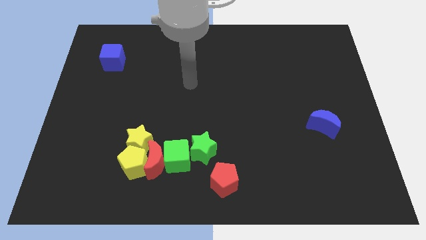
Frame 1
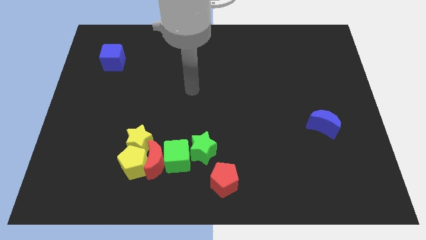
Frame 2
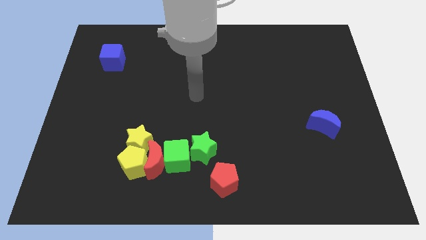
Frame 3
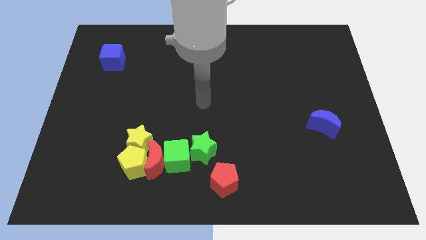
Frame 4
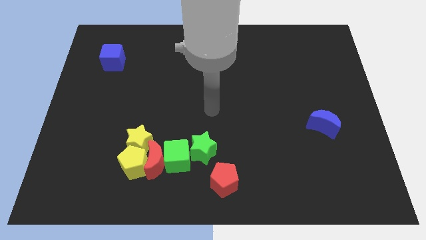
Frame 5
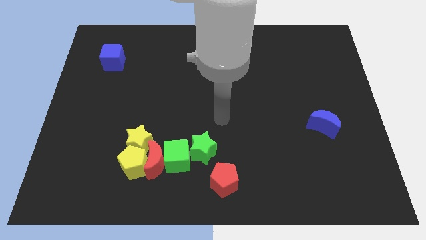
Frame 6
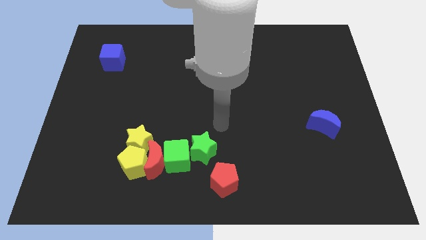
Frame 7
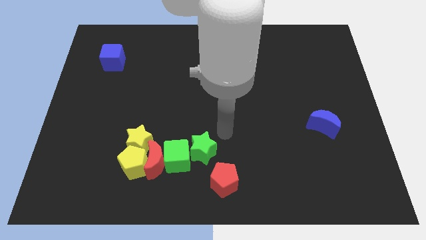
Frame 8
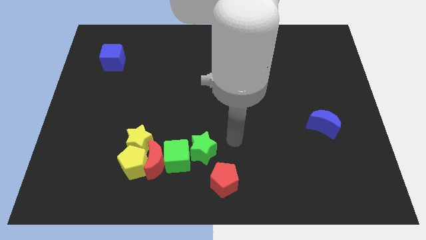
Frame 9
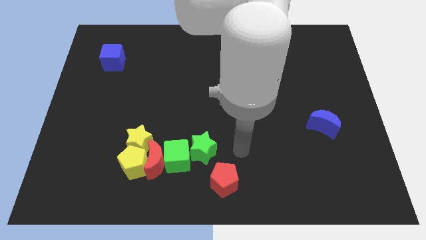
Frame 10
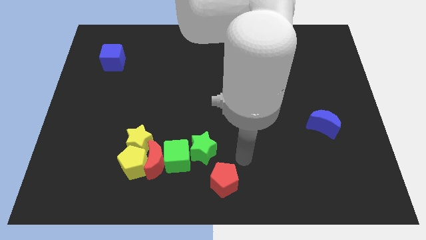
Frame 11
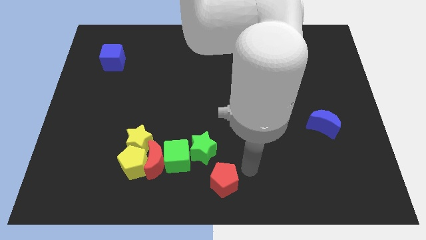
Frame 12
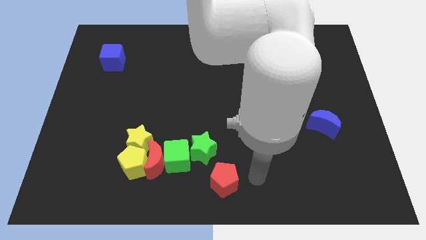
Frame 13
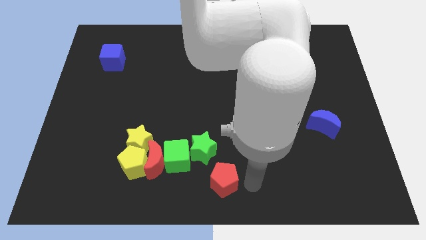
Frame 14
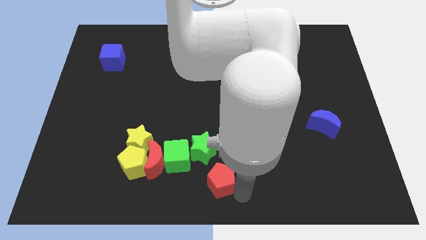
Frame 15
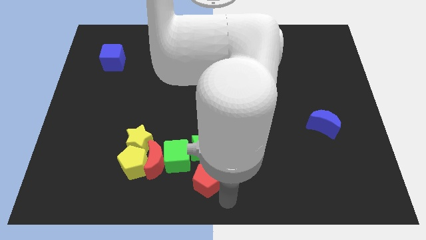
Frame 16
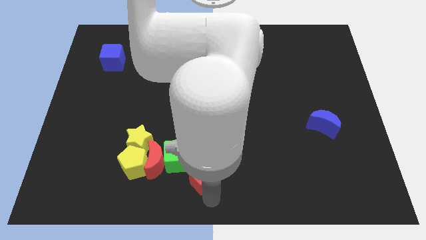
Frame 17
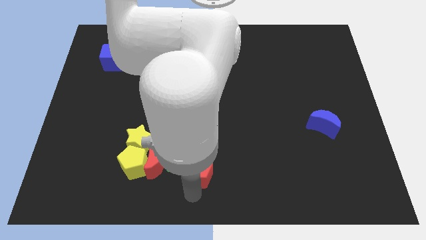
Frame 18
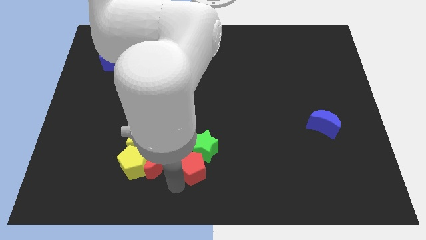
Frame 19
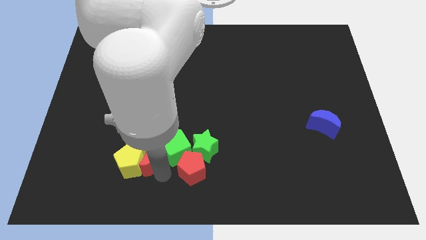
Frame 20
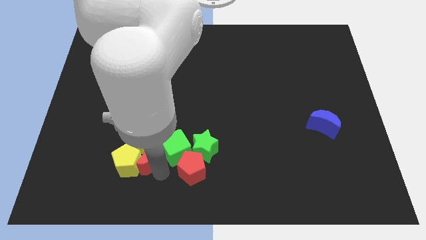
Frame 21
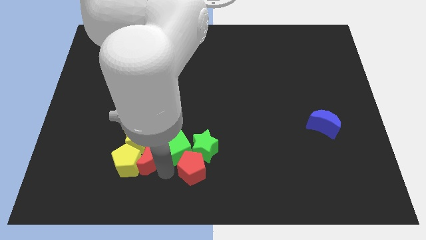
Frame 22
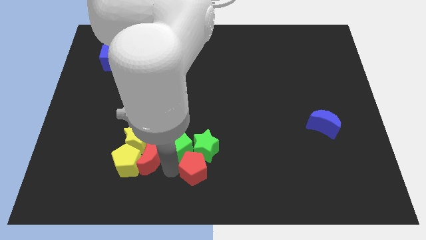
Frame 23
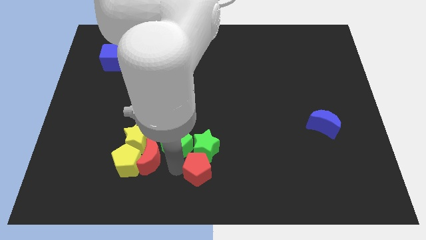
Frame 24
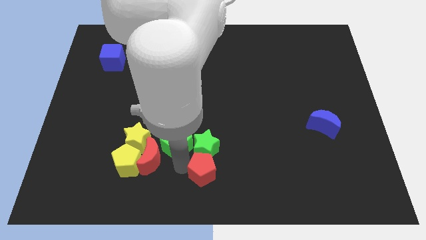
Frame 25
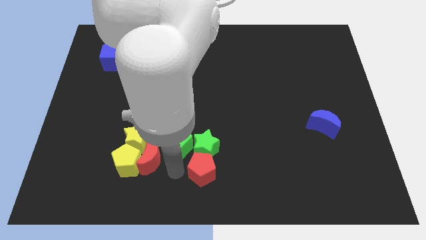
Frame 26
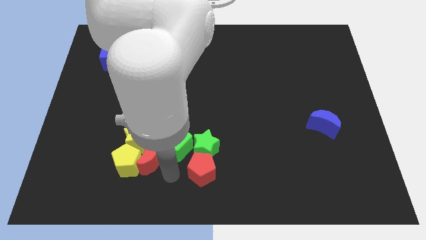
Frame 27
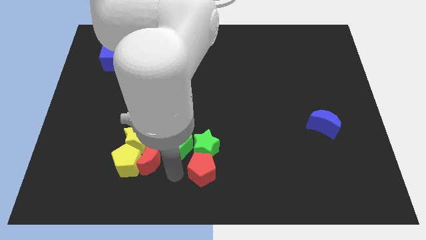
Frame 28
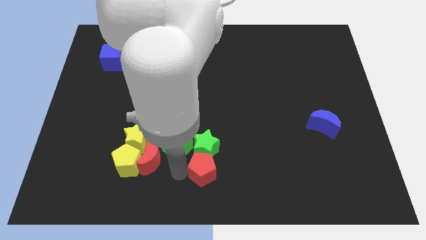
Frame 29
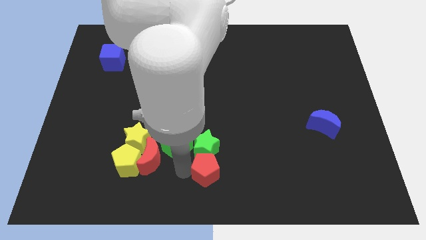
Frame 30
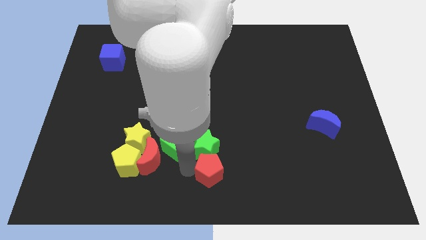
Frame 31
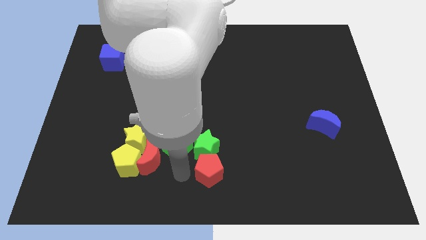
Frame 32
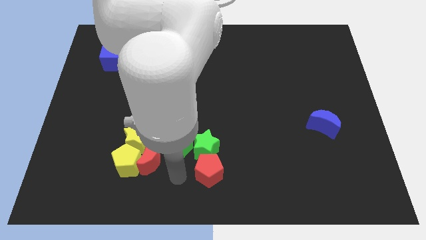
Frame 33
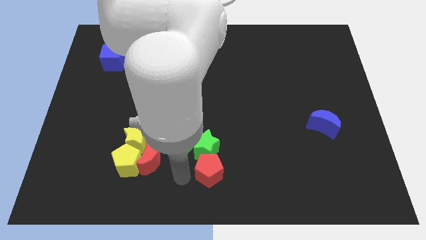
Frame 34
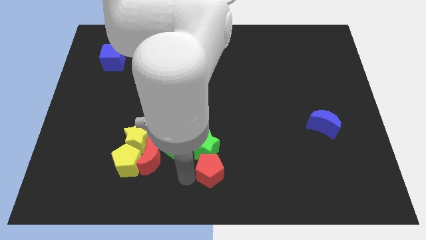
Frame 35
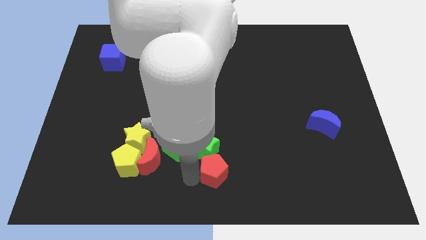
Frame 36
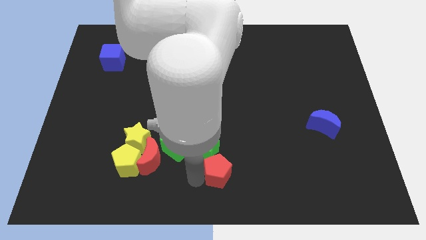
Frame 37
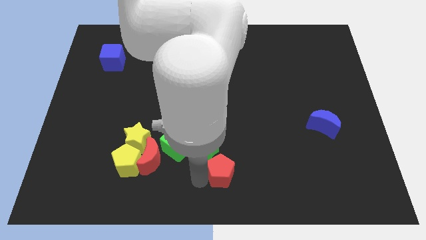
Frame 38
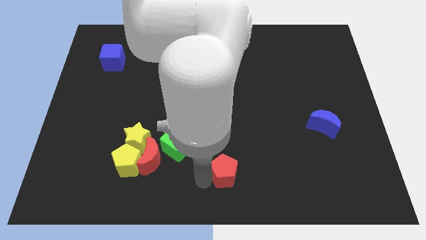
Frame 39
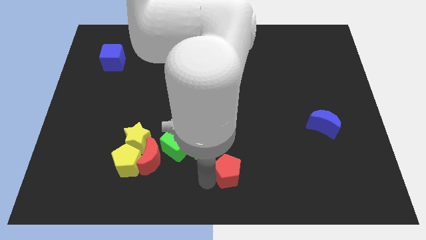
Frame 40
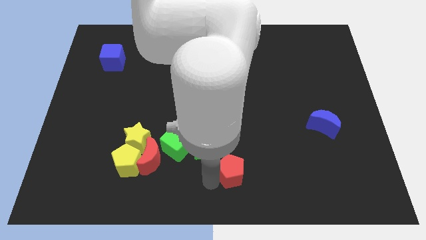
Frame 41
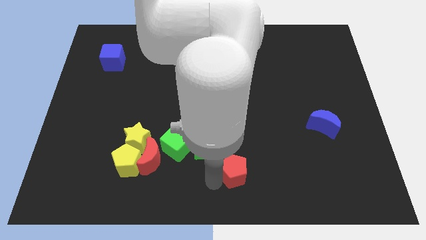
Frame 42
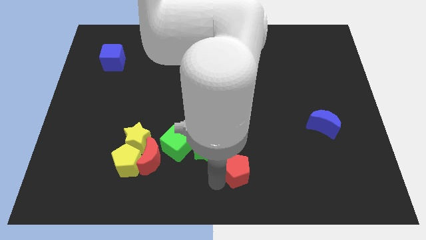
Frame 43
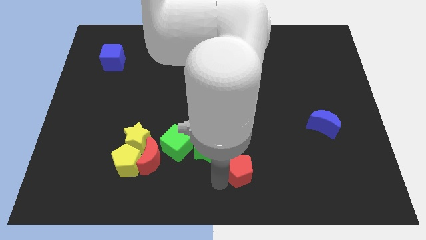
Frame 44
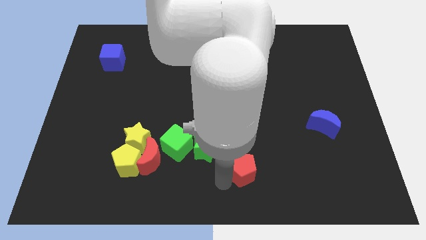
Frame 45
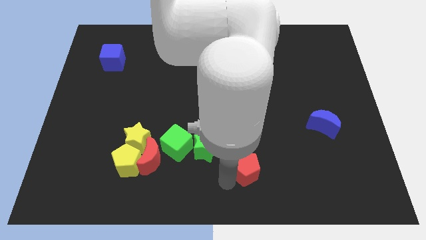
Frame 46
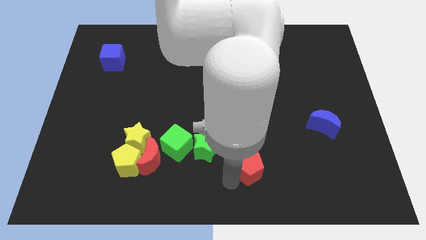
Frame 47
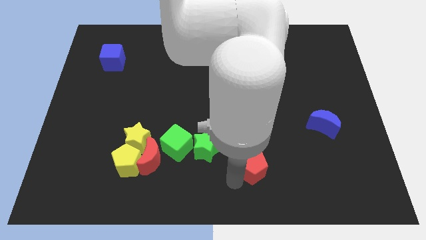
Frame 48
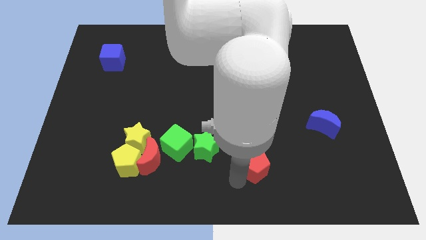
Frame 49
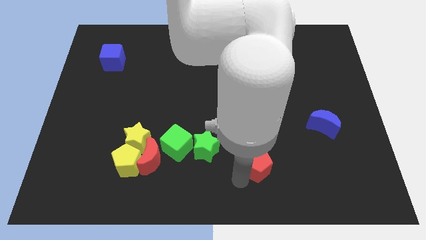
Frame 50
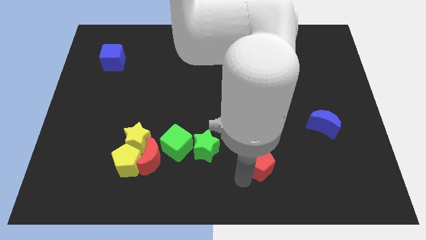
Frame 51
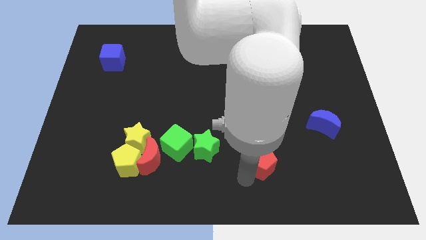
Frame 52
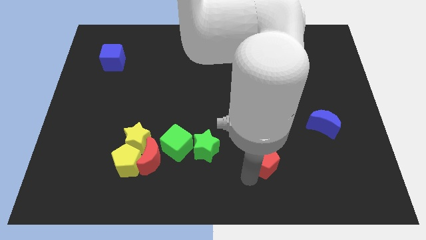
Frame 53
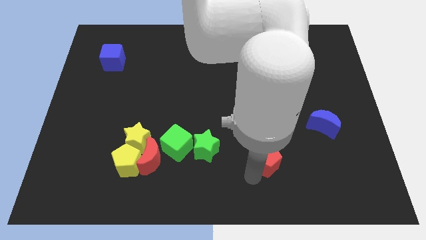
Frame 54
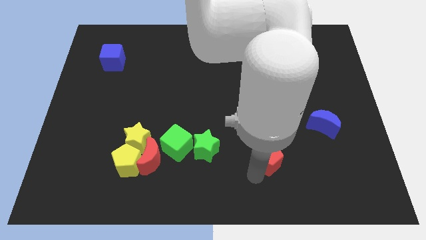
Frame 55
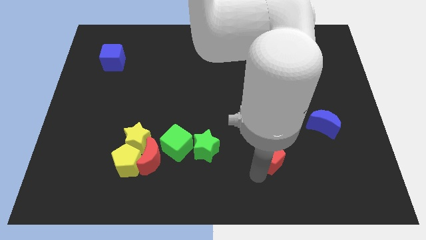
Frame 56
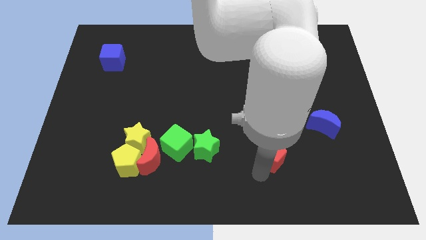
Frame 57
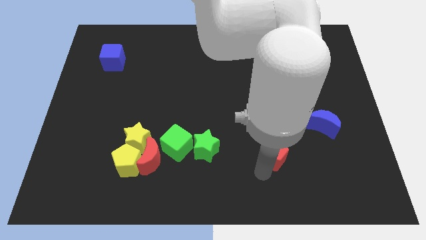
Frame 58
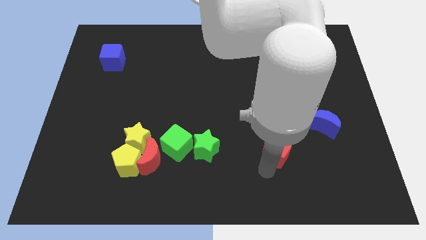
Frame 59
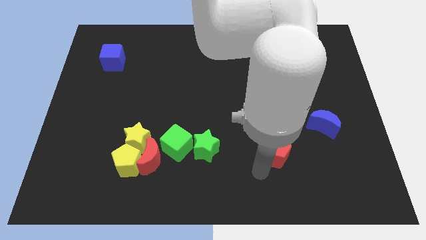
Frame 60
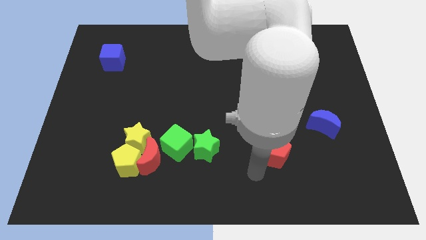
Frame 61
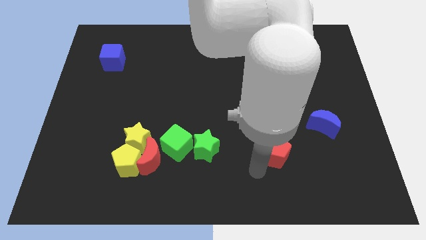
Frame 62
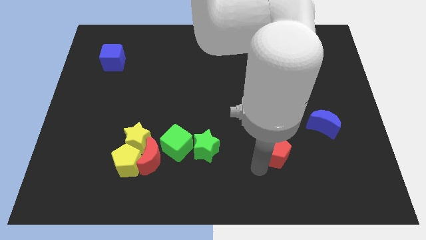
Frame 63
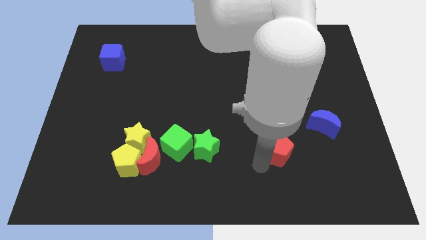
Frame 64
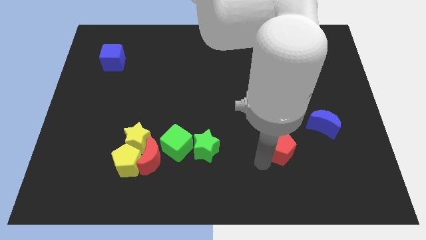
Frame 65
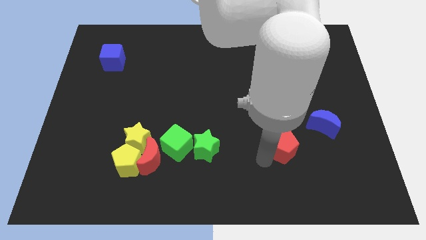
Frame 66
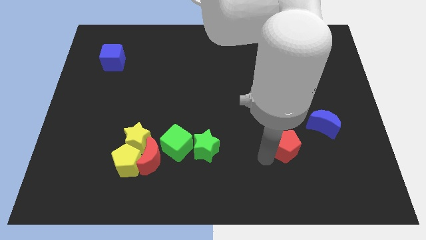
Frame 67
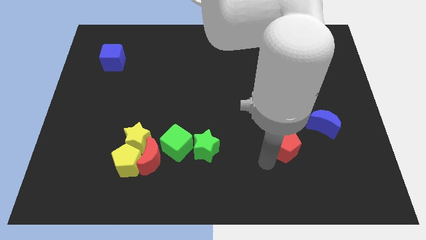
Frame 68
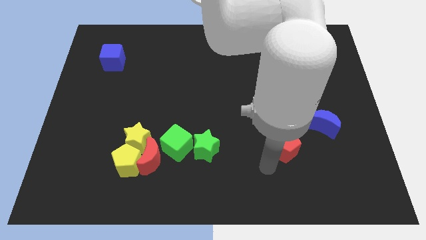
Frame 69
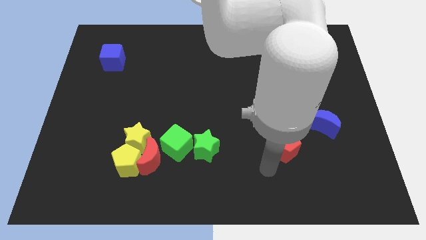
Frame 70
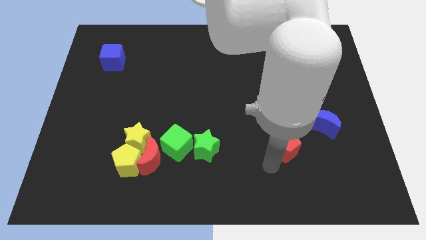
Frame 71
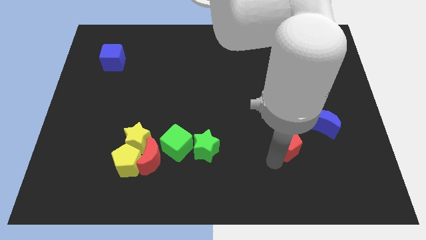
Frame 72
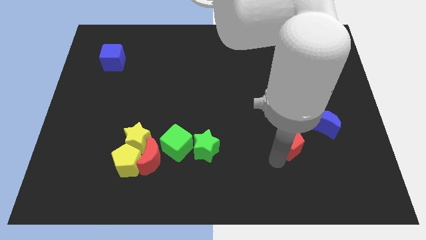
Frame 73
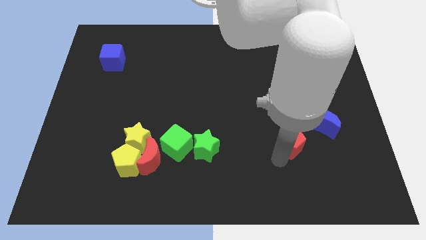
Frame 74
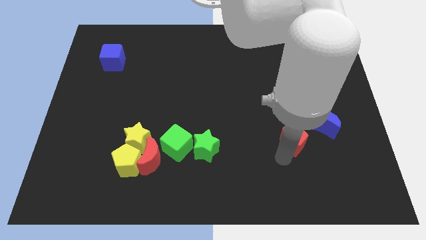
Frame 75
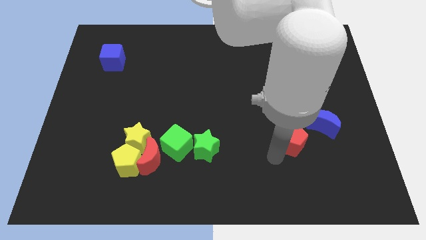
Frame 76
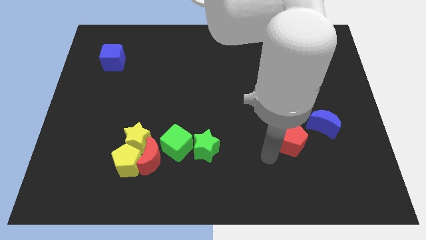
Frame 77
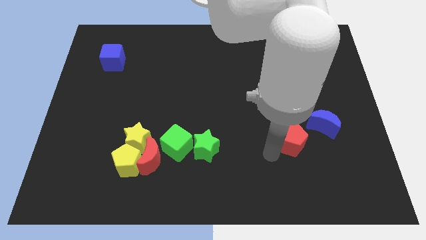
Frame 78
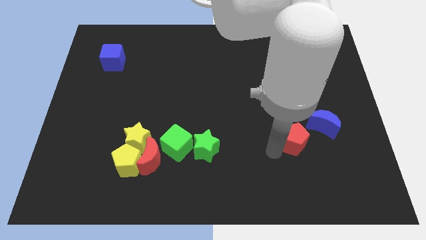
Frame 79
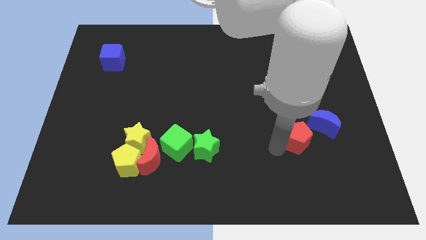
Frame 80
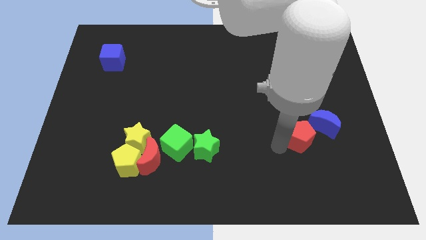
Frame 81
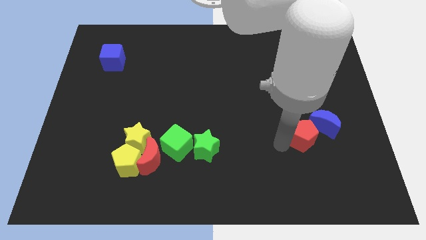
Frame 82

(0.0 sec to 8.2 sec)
push the red pentagon close to the blue moon
